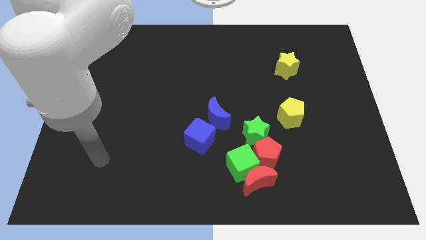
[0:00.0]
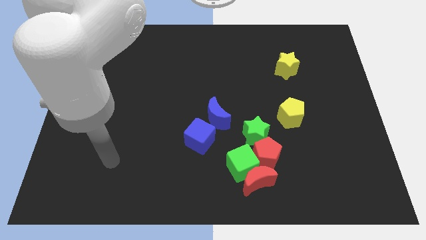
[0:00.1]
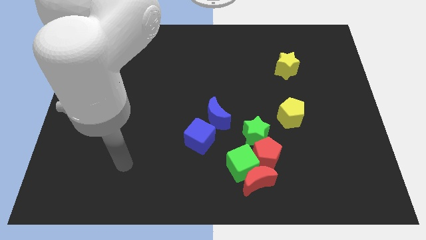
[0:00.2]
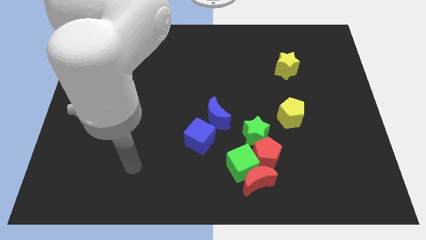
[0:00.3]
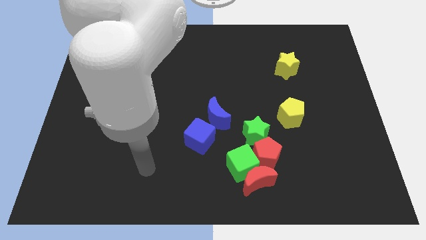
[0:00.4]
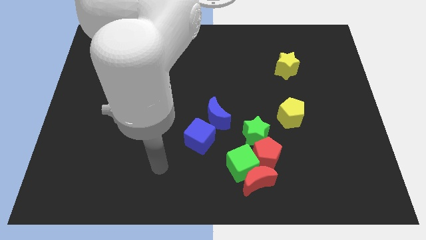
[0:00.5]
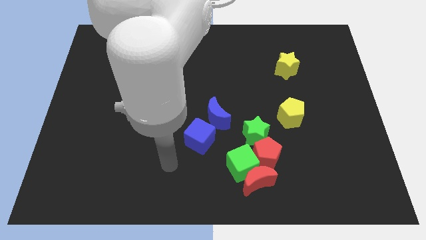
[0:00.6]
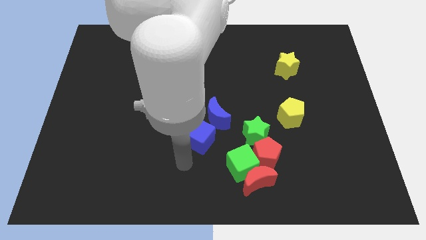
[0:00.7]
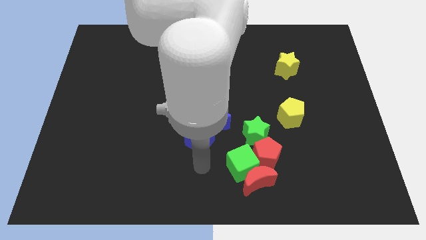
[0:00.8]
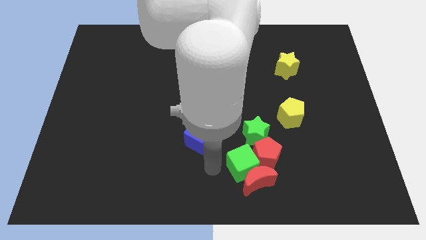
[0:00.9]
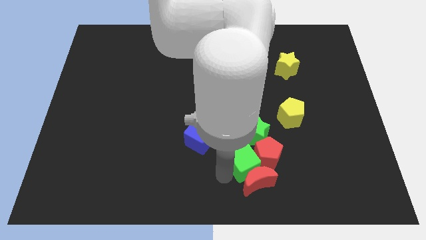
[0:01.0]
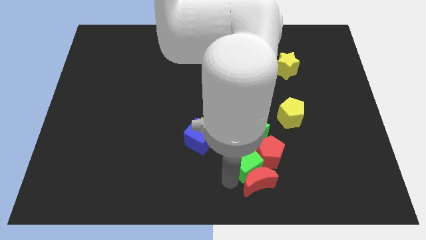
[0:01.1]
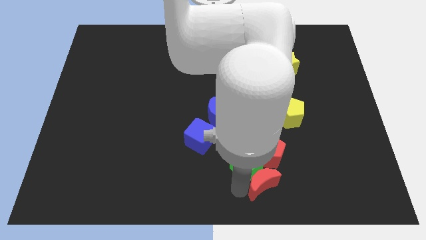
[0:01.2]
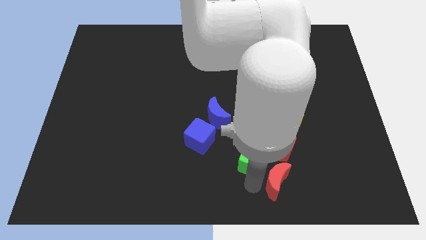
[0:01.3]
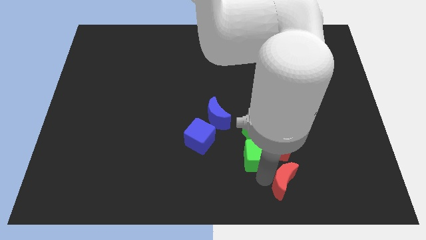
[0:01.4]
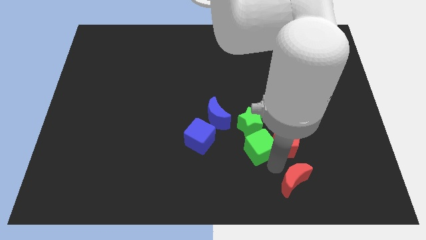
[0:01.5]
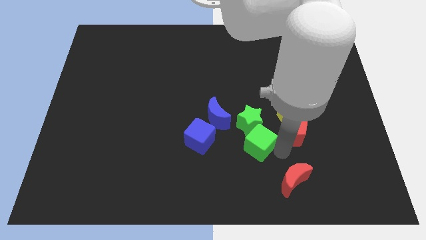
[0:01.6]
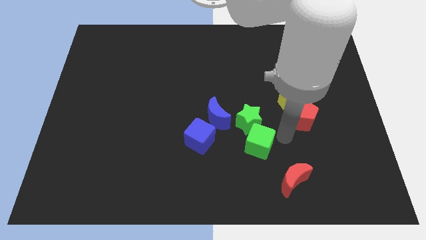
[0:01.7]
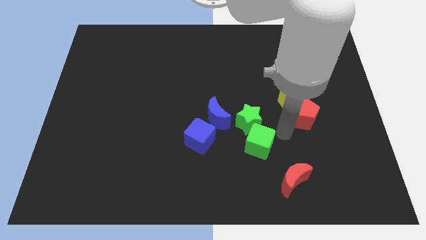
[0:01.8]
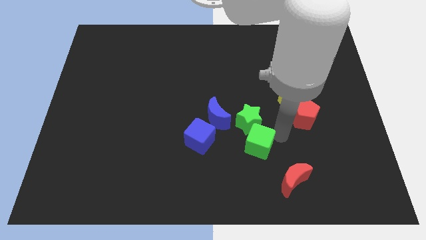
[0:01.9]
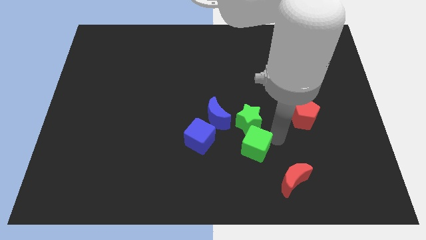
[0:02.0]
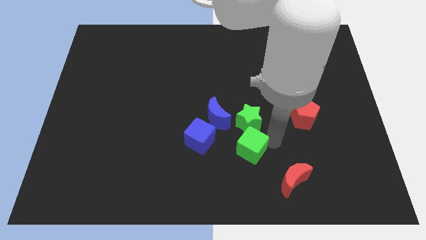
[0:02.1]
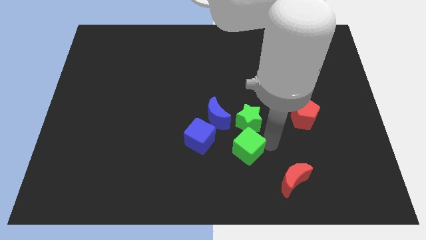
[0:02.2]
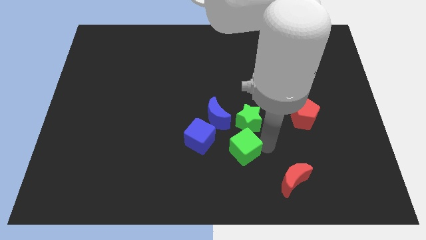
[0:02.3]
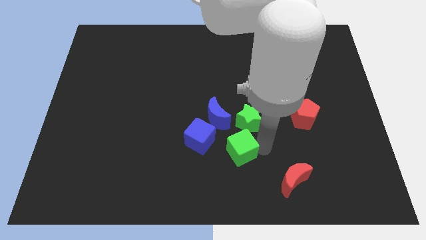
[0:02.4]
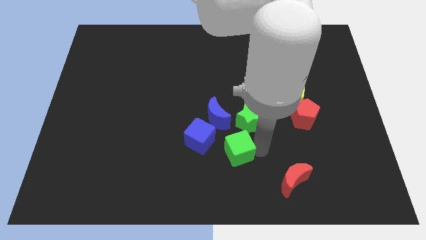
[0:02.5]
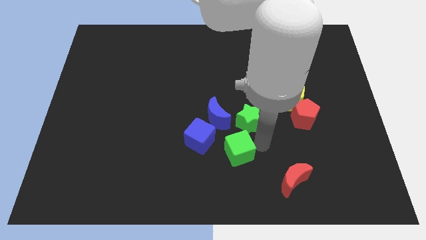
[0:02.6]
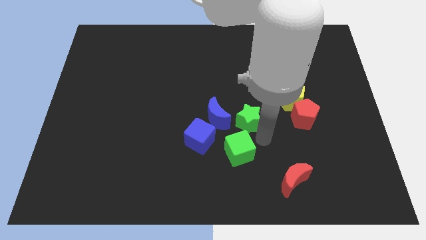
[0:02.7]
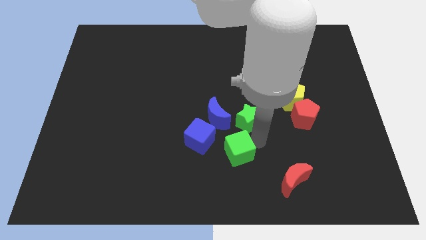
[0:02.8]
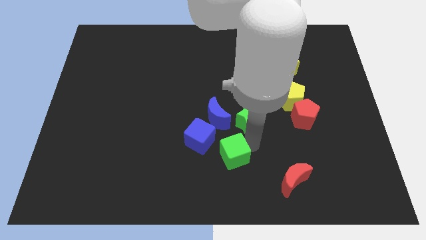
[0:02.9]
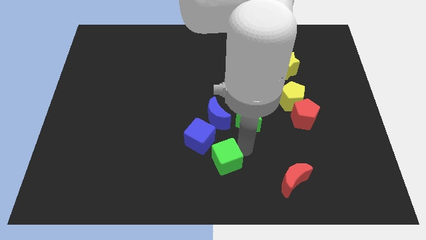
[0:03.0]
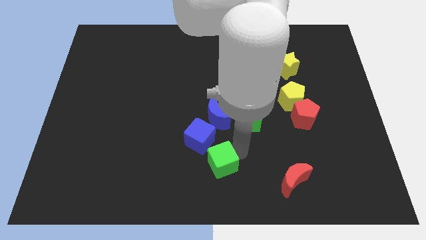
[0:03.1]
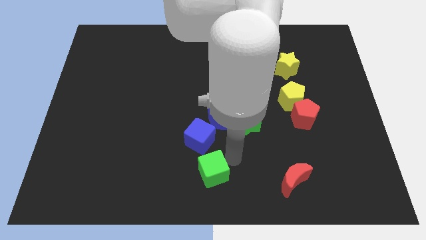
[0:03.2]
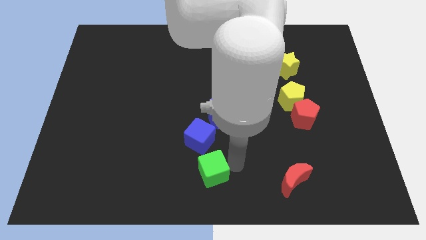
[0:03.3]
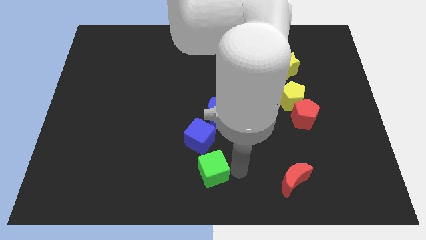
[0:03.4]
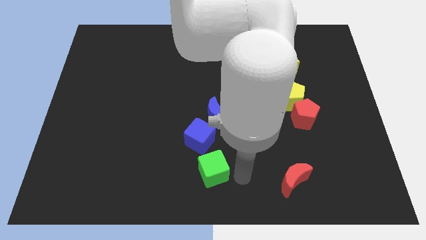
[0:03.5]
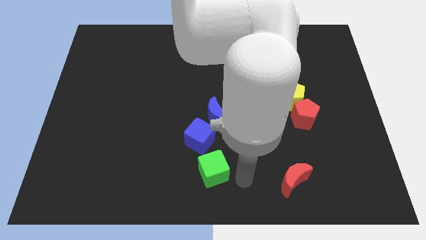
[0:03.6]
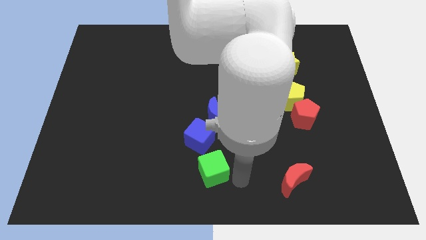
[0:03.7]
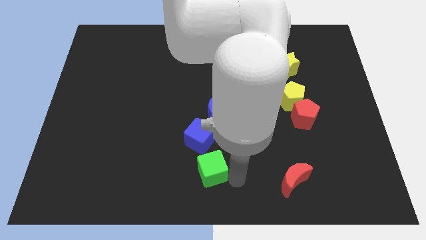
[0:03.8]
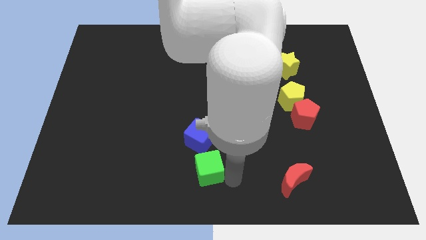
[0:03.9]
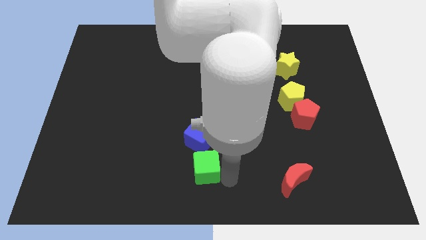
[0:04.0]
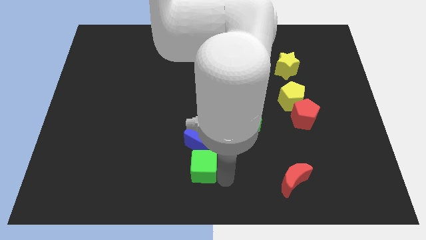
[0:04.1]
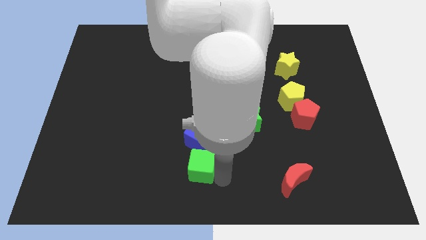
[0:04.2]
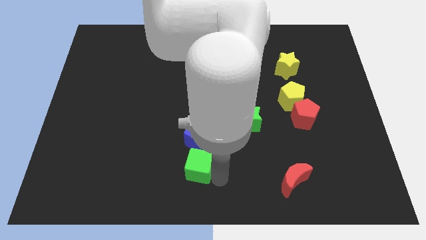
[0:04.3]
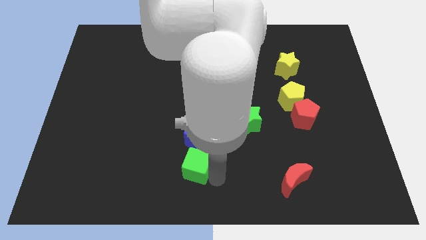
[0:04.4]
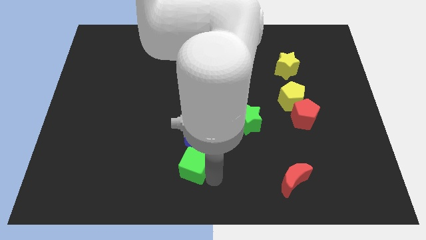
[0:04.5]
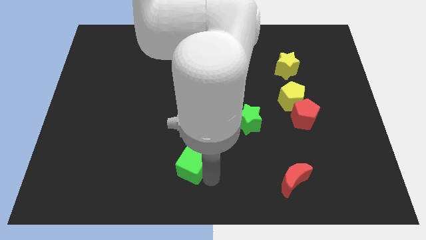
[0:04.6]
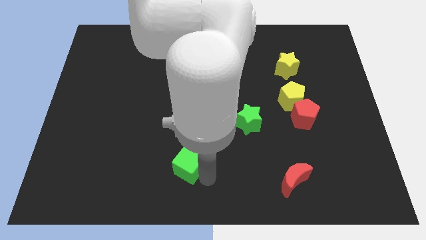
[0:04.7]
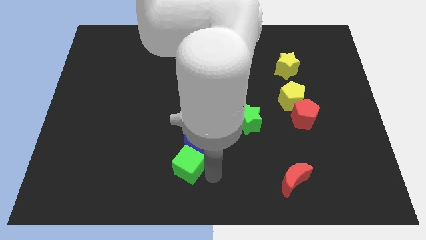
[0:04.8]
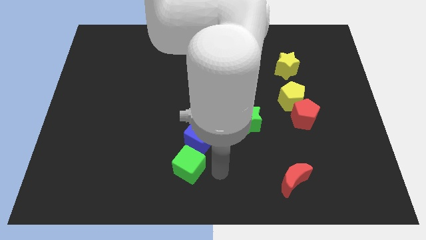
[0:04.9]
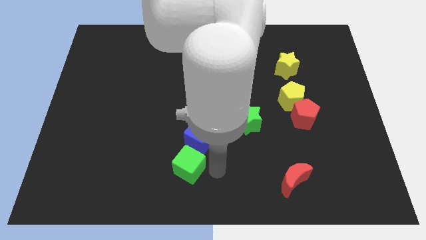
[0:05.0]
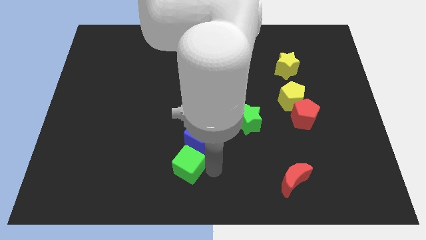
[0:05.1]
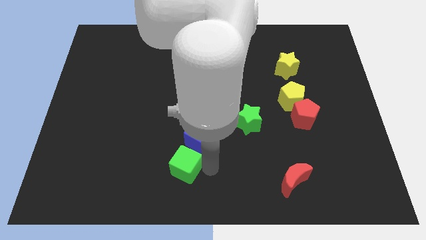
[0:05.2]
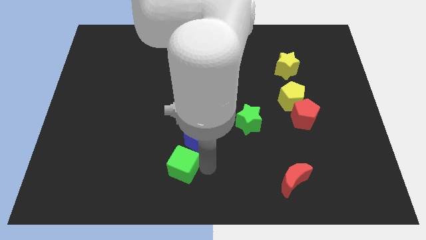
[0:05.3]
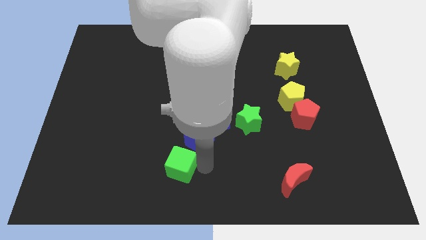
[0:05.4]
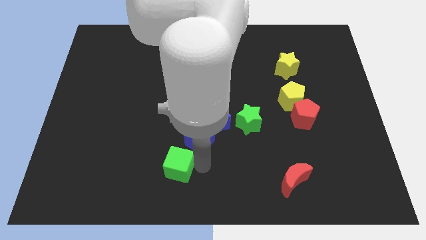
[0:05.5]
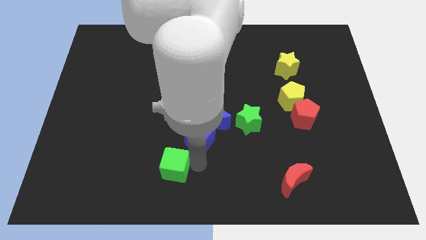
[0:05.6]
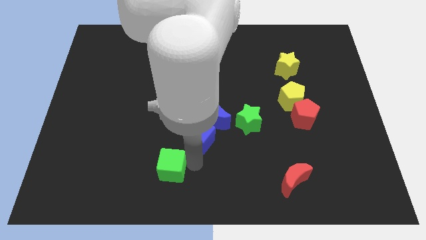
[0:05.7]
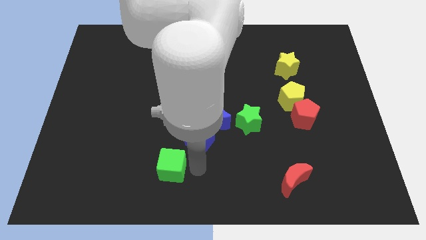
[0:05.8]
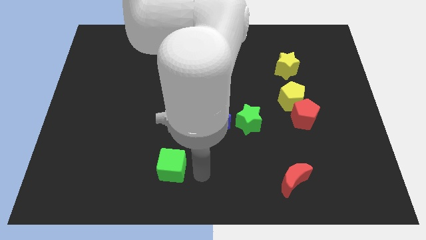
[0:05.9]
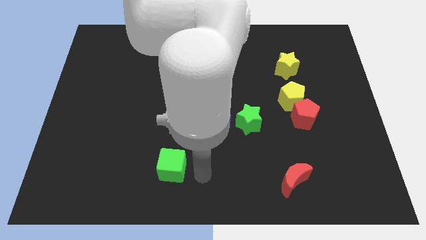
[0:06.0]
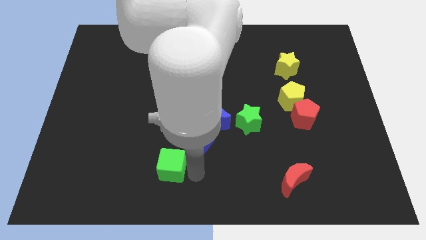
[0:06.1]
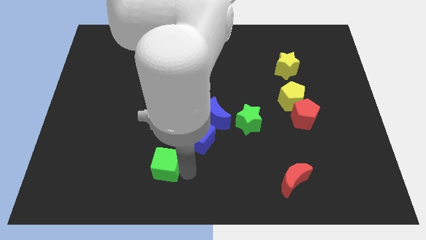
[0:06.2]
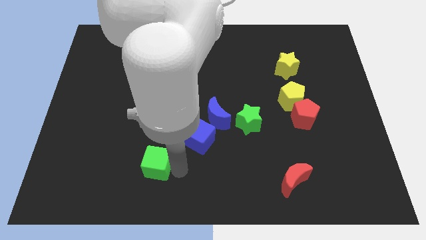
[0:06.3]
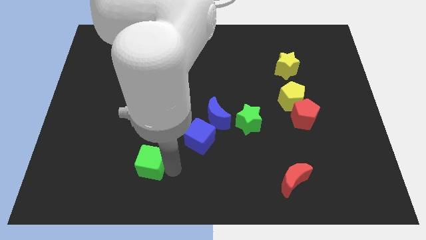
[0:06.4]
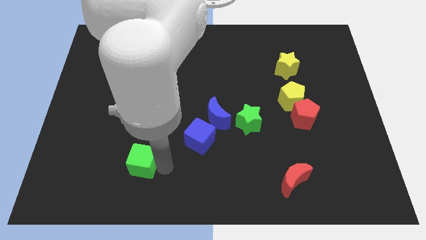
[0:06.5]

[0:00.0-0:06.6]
move the green cube to the left

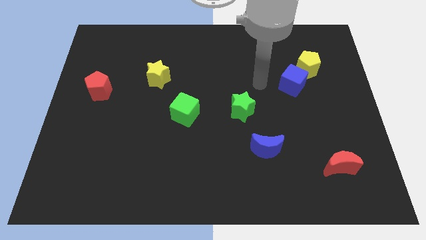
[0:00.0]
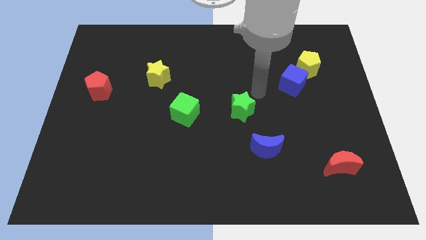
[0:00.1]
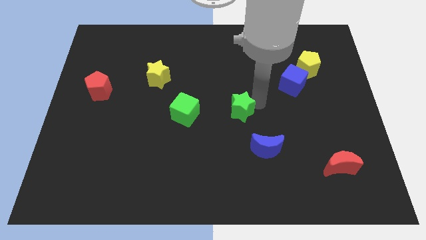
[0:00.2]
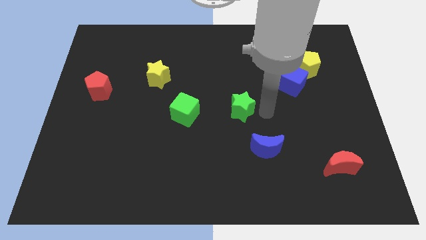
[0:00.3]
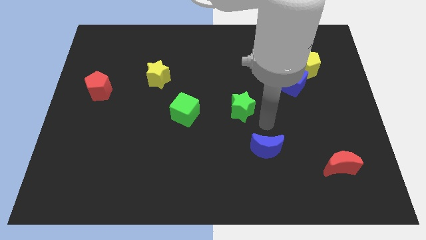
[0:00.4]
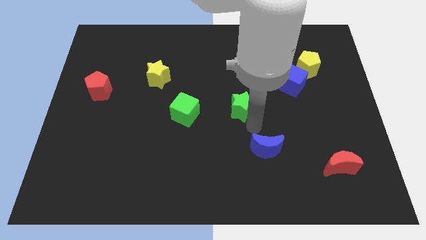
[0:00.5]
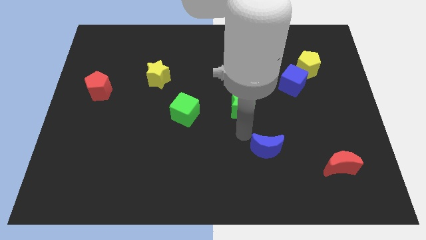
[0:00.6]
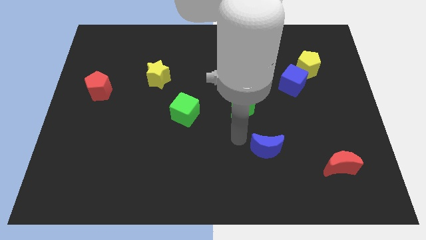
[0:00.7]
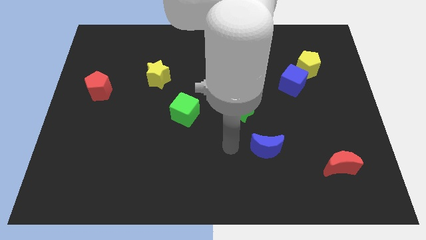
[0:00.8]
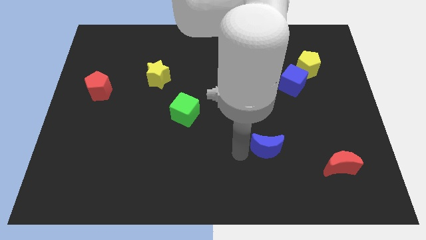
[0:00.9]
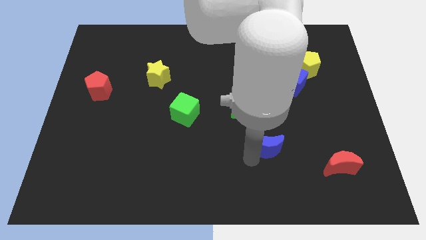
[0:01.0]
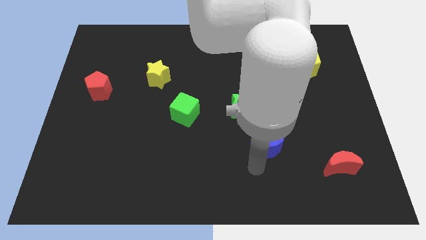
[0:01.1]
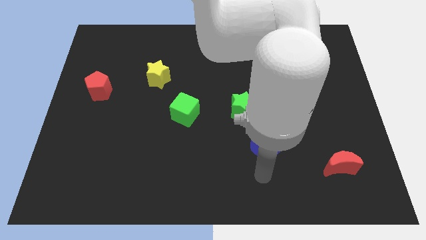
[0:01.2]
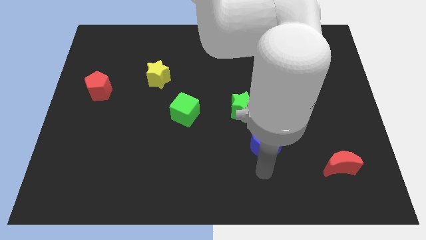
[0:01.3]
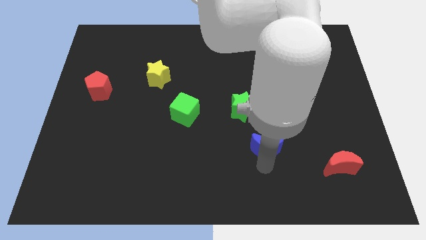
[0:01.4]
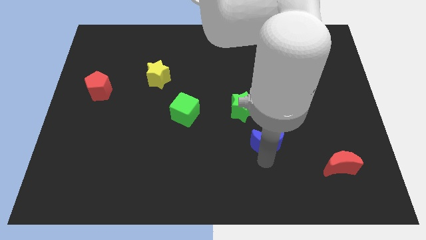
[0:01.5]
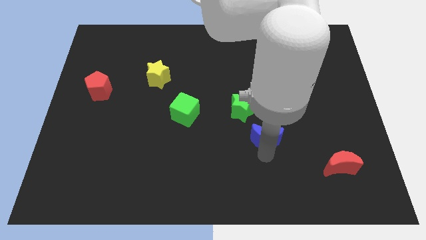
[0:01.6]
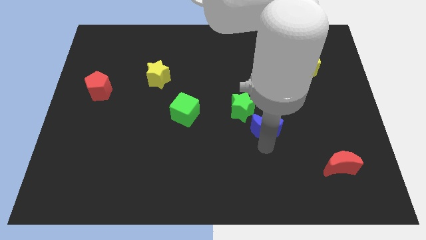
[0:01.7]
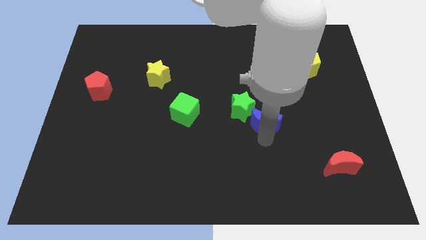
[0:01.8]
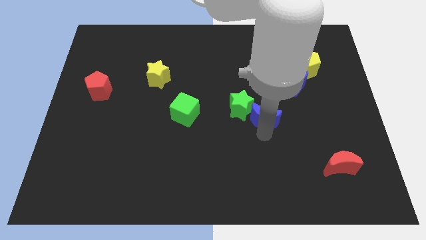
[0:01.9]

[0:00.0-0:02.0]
slightly slide the blue moon up
